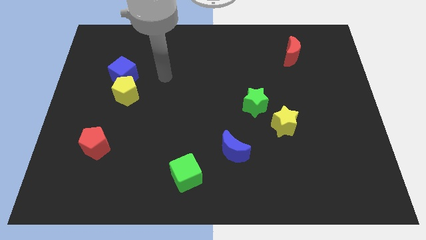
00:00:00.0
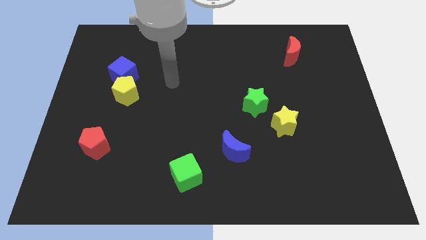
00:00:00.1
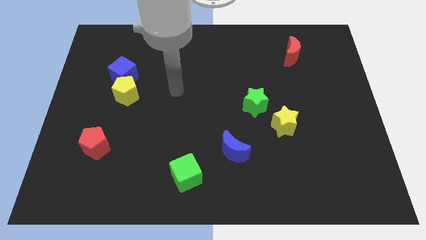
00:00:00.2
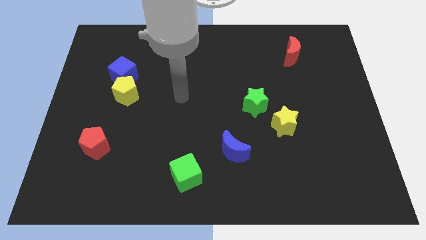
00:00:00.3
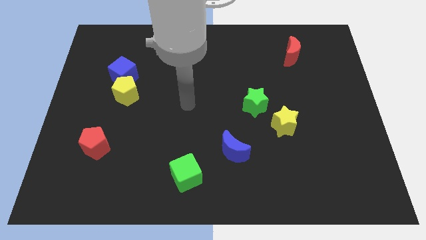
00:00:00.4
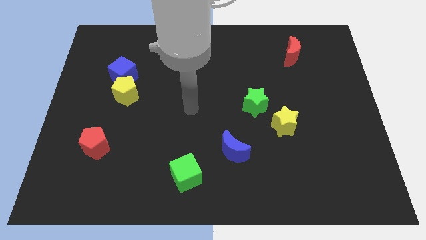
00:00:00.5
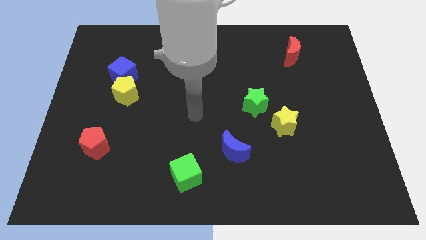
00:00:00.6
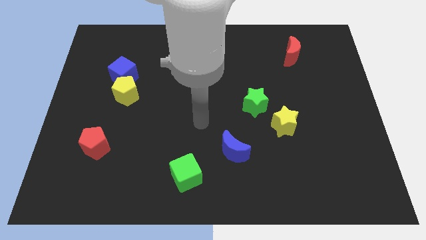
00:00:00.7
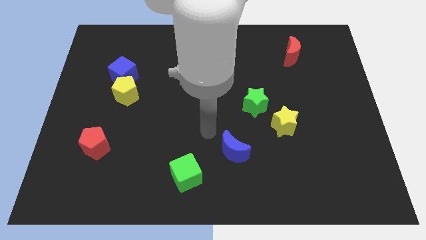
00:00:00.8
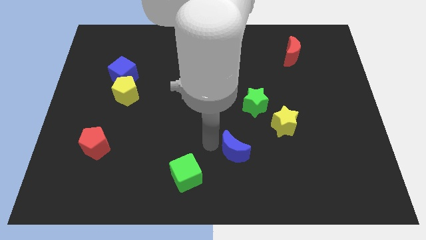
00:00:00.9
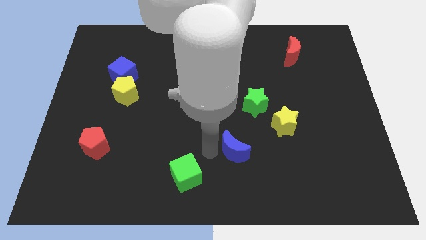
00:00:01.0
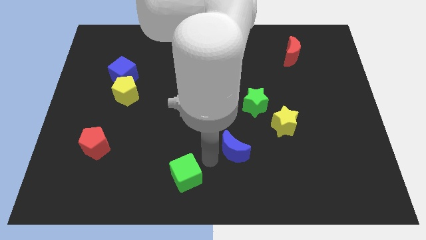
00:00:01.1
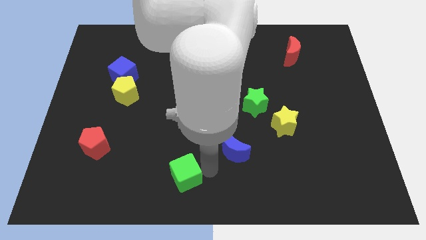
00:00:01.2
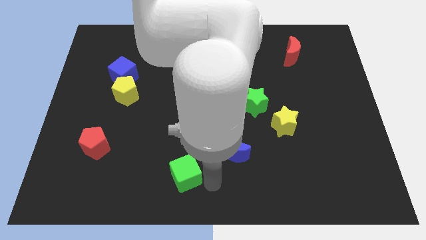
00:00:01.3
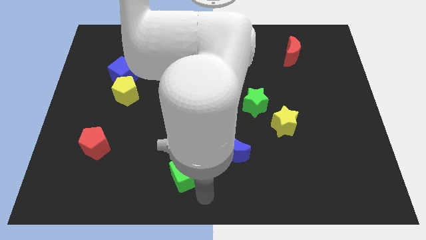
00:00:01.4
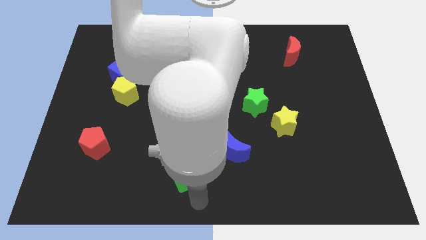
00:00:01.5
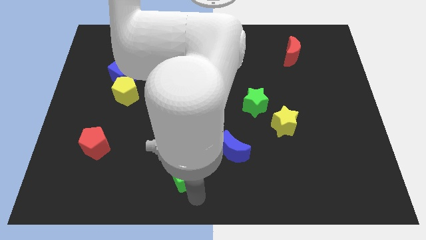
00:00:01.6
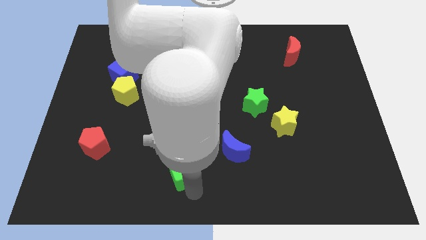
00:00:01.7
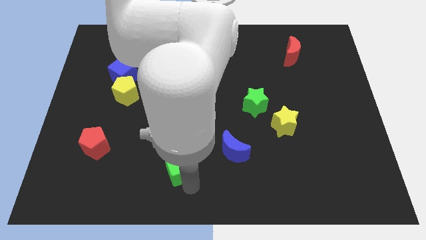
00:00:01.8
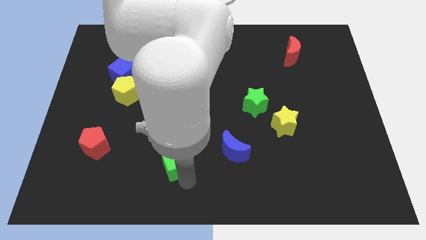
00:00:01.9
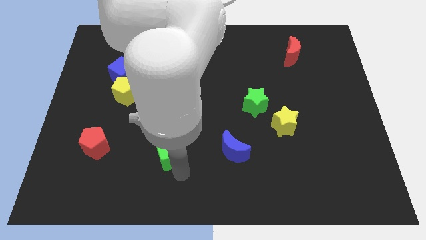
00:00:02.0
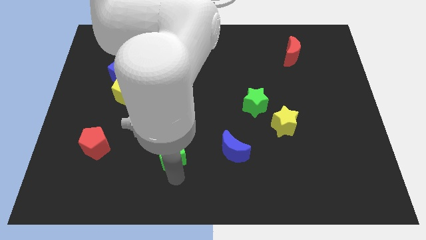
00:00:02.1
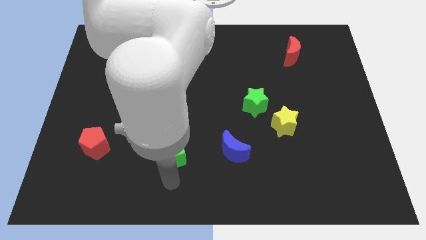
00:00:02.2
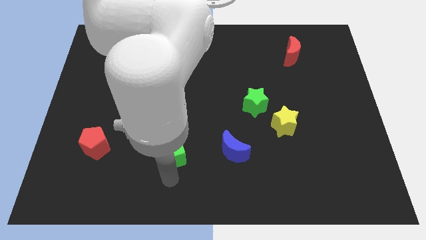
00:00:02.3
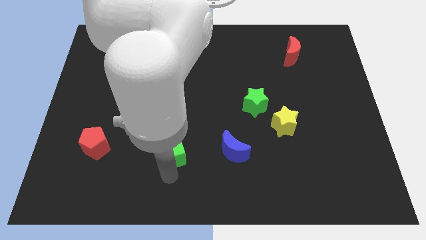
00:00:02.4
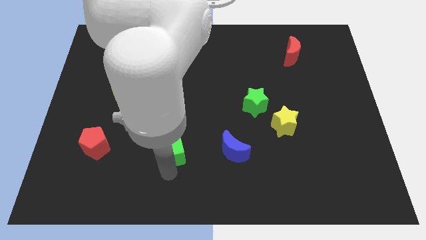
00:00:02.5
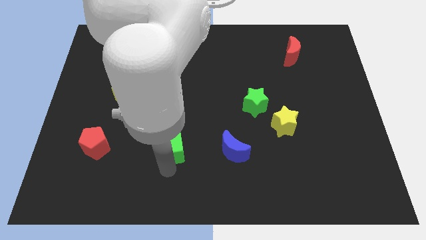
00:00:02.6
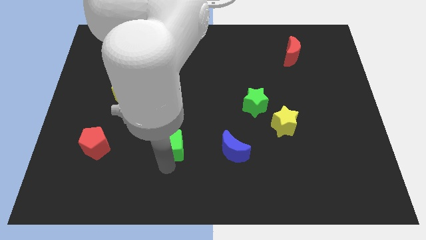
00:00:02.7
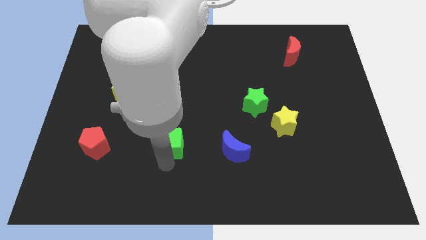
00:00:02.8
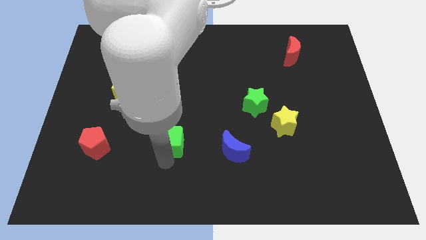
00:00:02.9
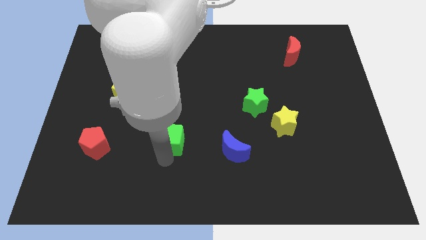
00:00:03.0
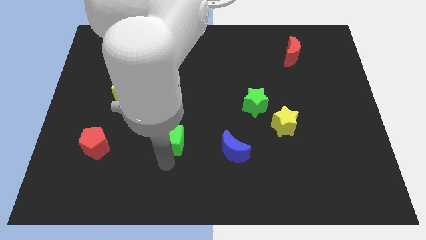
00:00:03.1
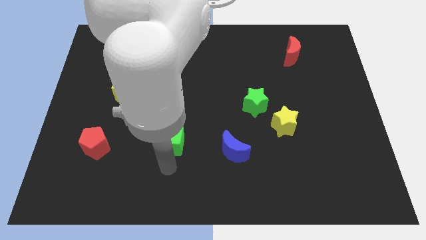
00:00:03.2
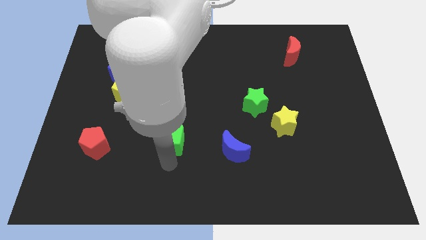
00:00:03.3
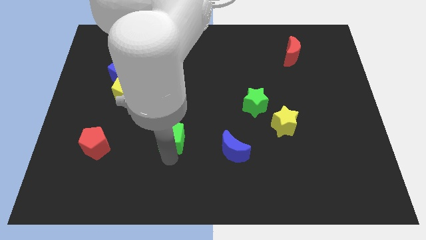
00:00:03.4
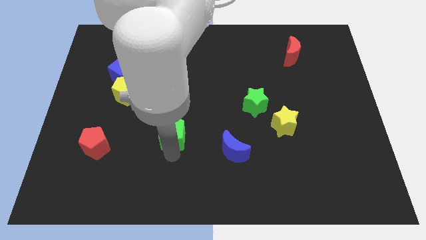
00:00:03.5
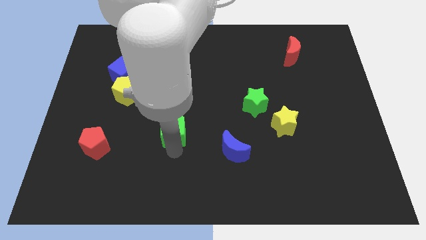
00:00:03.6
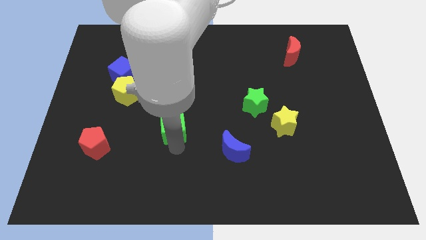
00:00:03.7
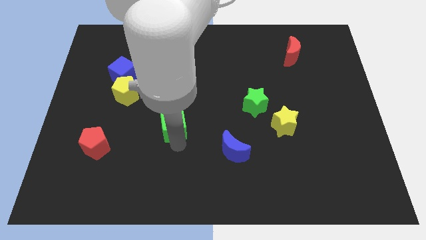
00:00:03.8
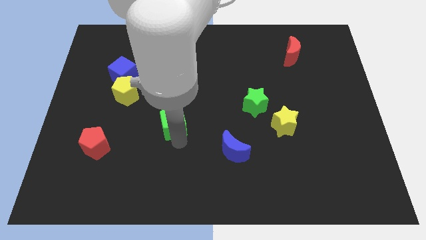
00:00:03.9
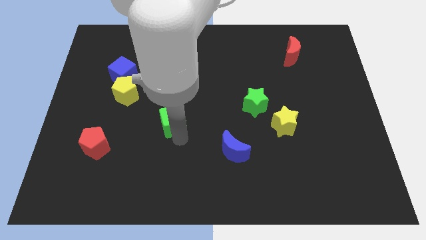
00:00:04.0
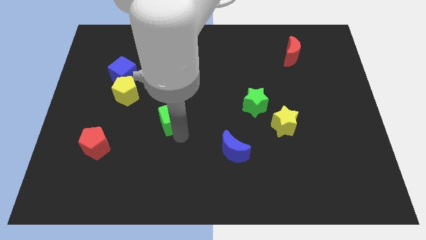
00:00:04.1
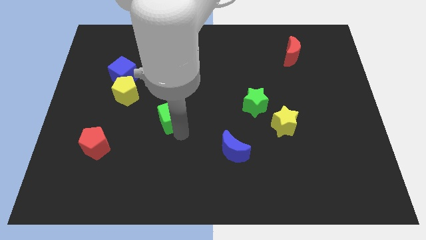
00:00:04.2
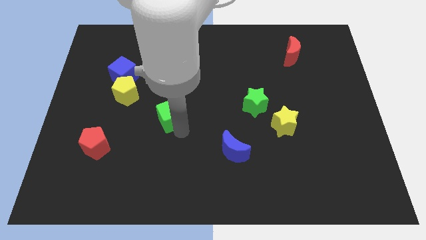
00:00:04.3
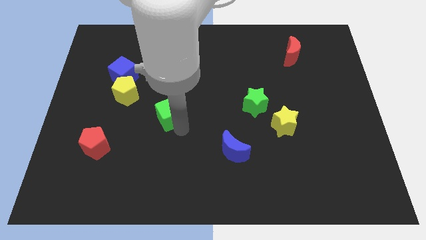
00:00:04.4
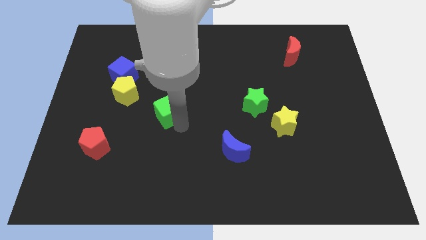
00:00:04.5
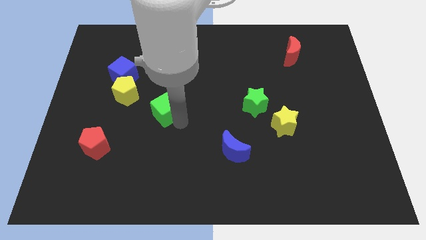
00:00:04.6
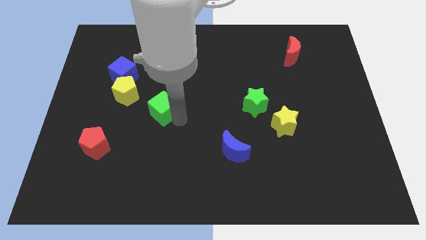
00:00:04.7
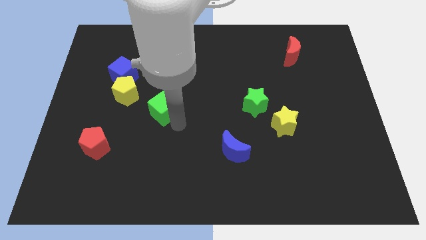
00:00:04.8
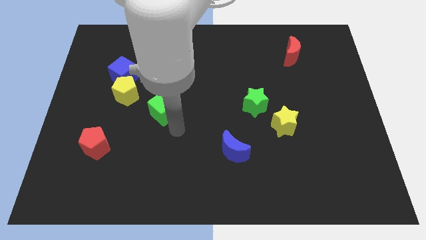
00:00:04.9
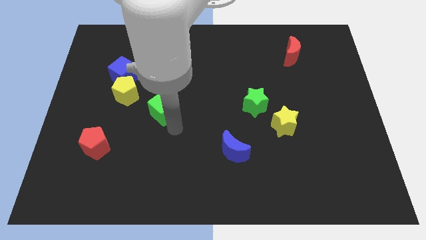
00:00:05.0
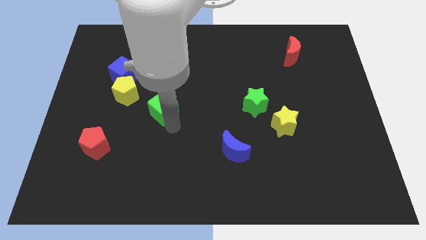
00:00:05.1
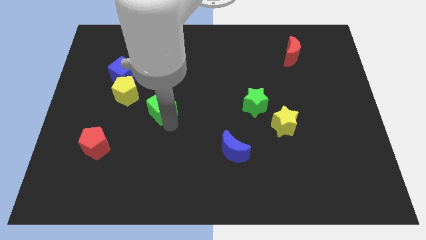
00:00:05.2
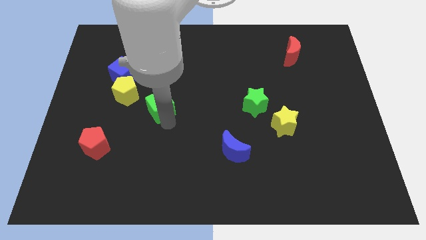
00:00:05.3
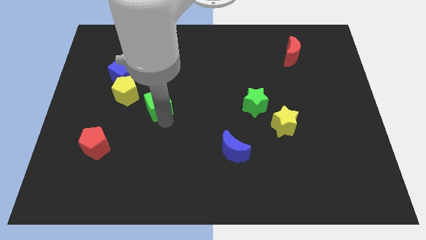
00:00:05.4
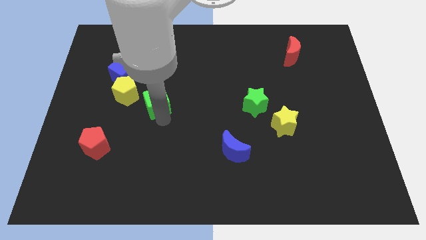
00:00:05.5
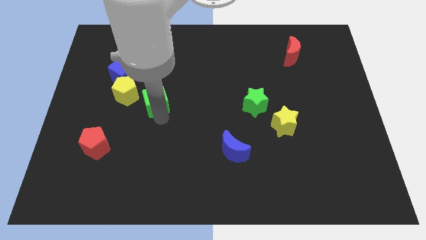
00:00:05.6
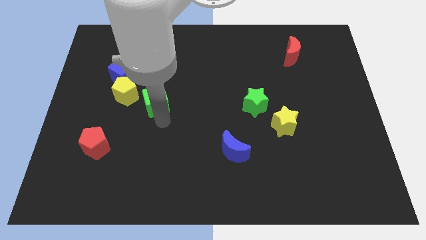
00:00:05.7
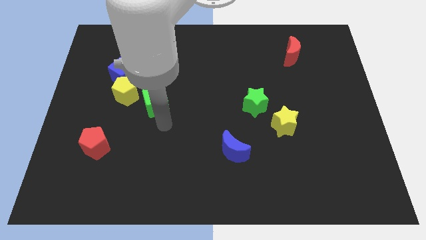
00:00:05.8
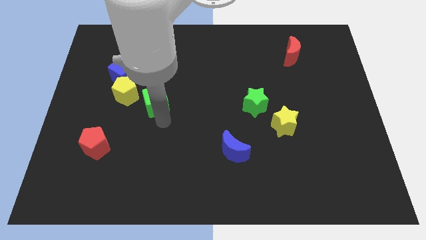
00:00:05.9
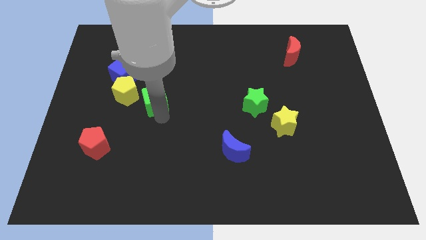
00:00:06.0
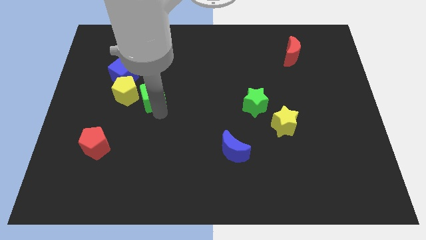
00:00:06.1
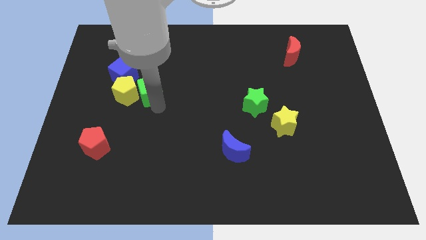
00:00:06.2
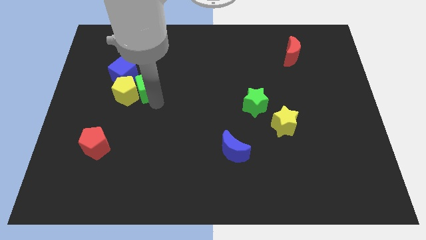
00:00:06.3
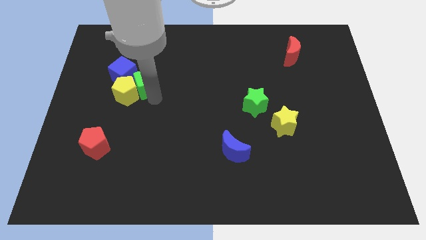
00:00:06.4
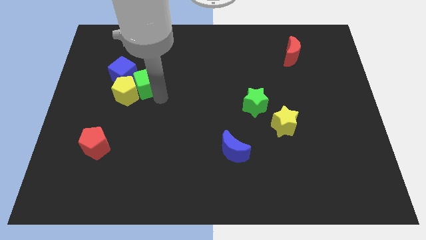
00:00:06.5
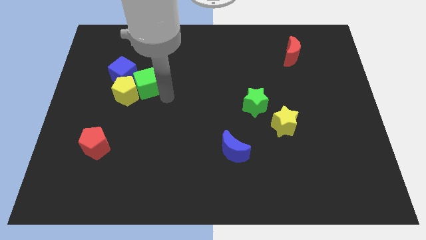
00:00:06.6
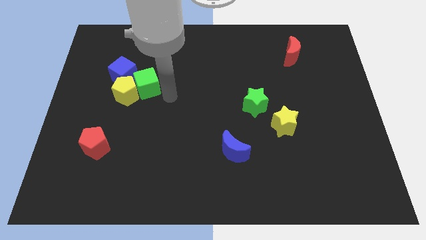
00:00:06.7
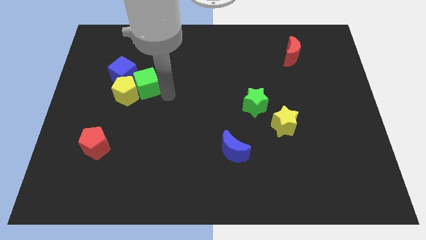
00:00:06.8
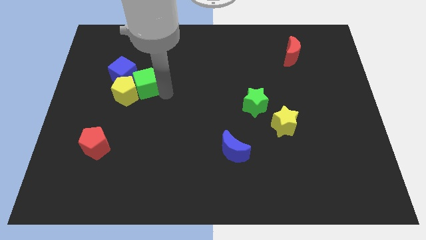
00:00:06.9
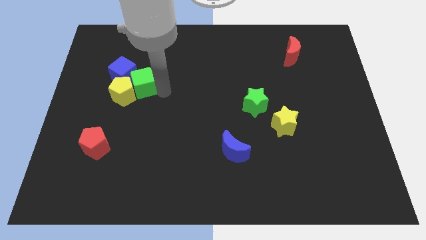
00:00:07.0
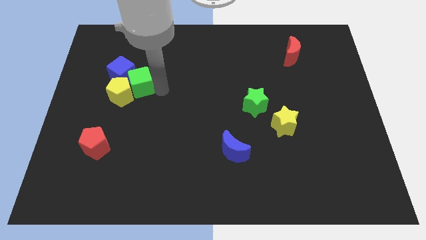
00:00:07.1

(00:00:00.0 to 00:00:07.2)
push the green cube towards the blue cube
